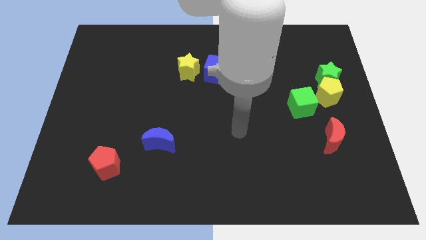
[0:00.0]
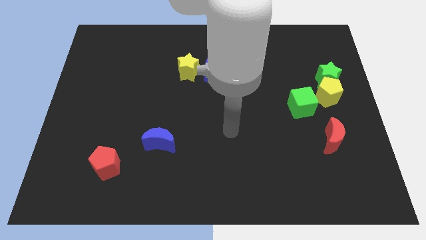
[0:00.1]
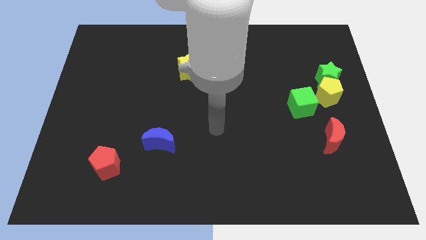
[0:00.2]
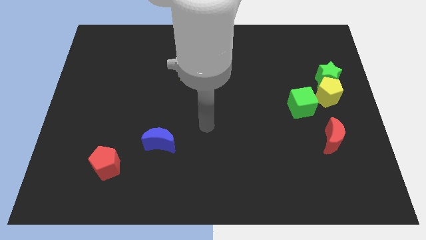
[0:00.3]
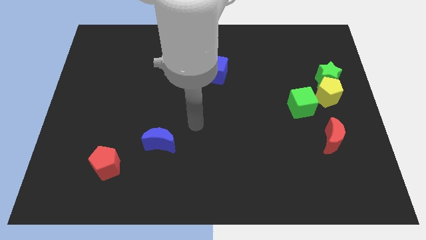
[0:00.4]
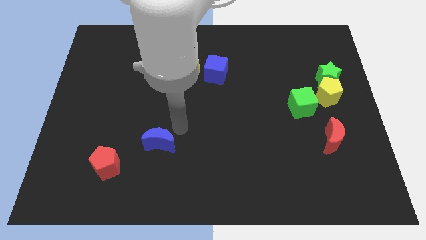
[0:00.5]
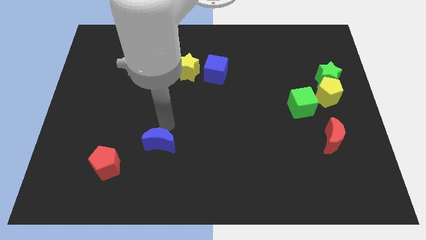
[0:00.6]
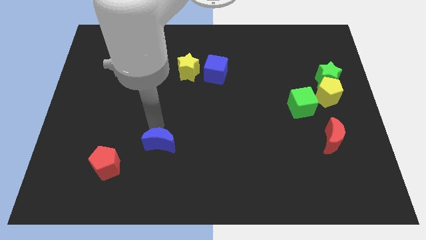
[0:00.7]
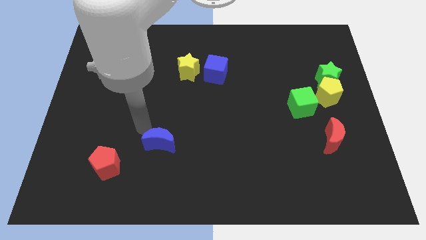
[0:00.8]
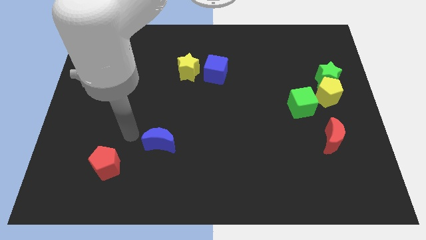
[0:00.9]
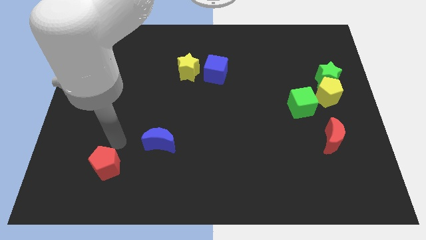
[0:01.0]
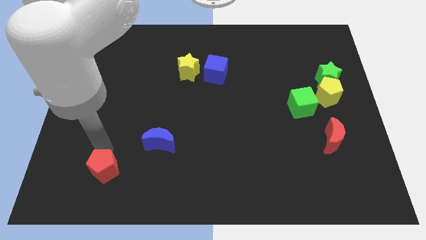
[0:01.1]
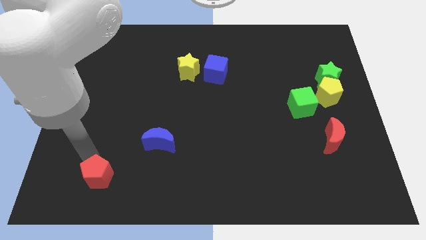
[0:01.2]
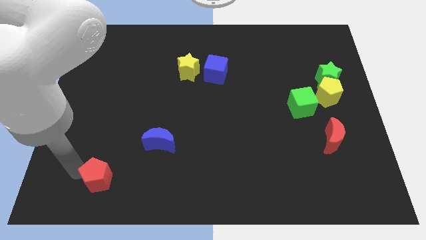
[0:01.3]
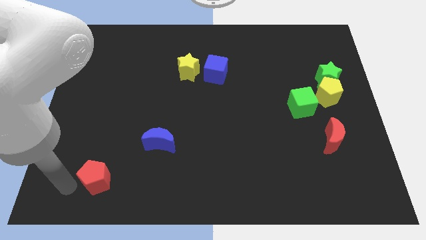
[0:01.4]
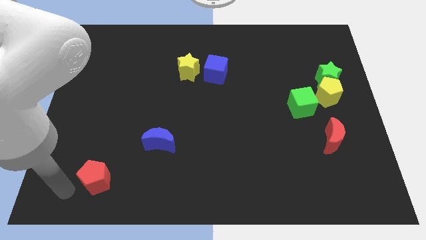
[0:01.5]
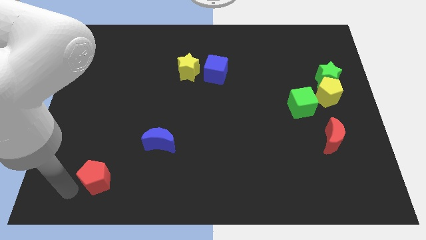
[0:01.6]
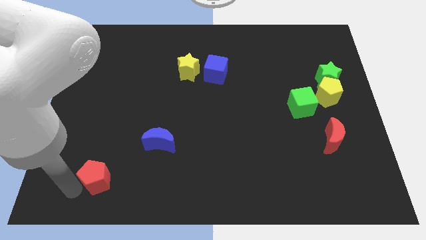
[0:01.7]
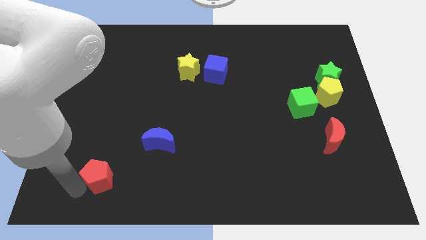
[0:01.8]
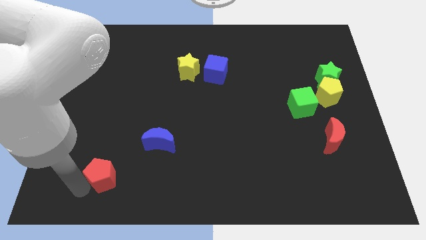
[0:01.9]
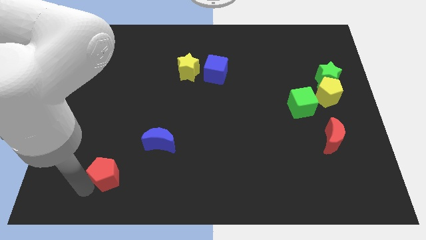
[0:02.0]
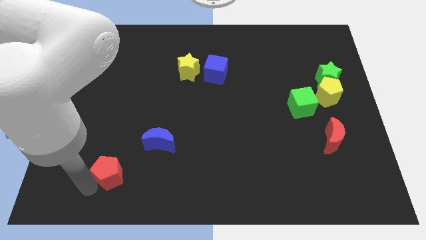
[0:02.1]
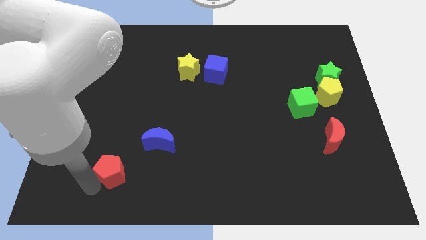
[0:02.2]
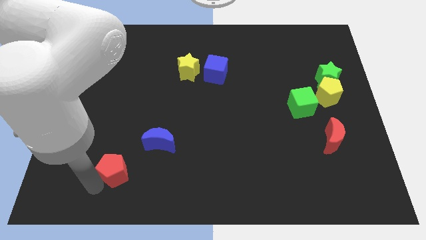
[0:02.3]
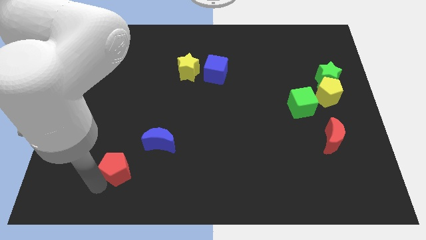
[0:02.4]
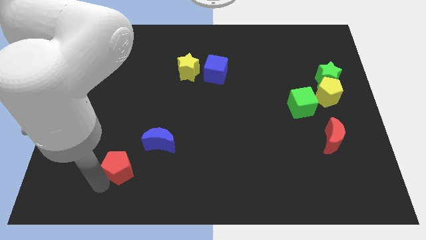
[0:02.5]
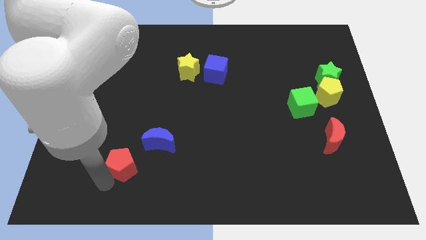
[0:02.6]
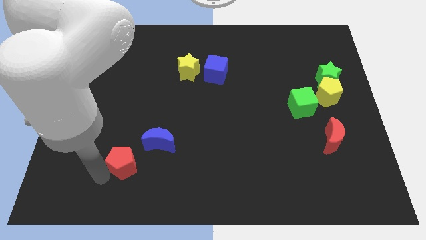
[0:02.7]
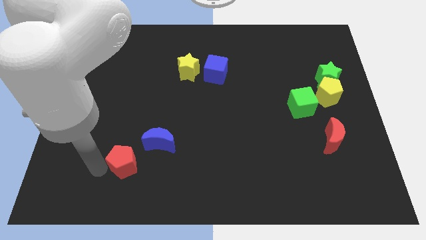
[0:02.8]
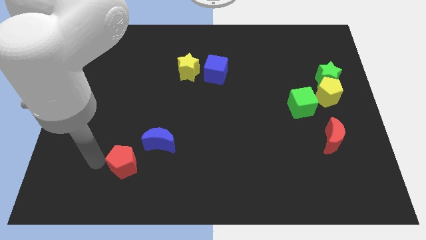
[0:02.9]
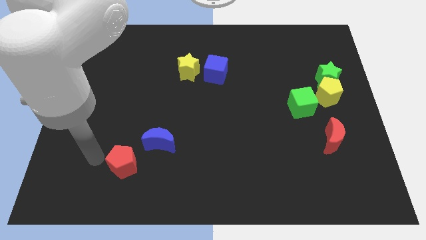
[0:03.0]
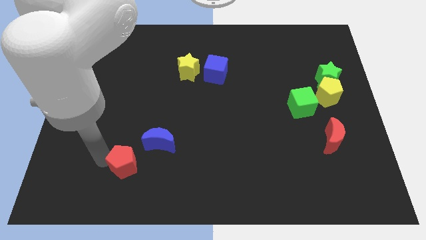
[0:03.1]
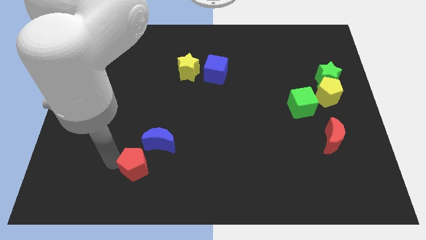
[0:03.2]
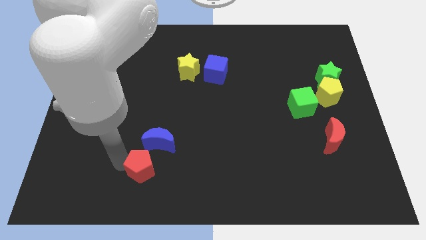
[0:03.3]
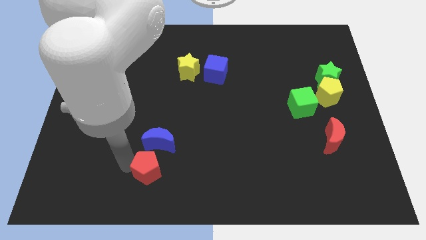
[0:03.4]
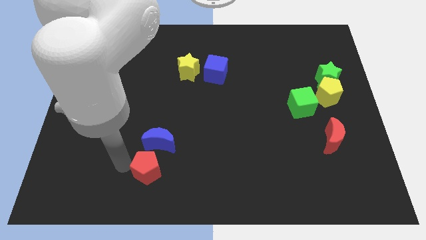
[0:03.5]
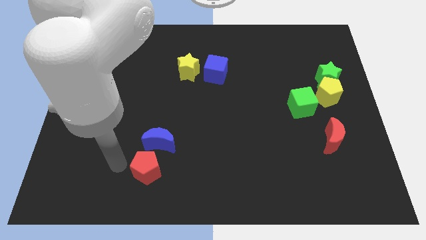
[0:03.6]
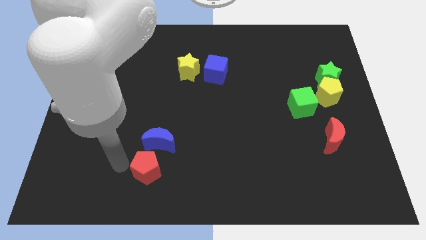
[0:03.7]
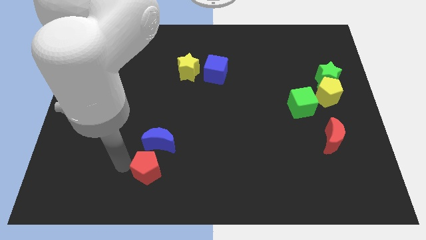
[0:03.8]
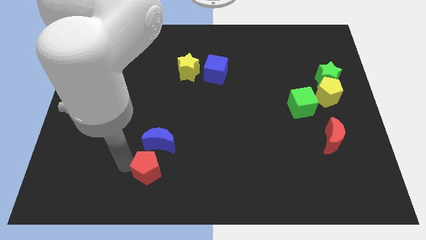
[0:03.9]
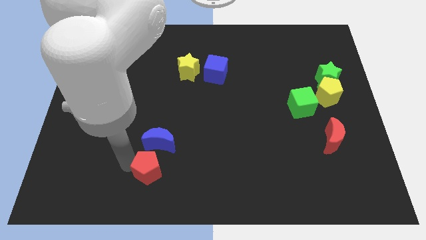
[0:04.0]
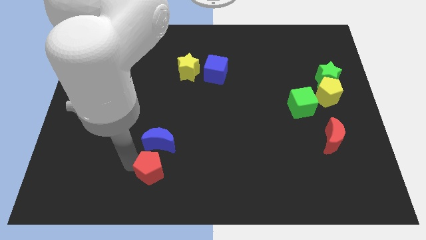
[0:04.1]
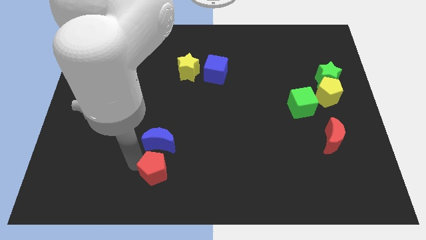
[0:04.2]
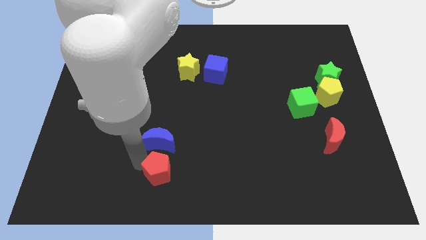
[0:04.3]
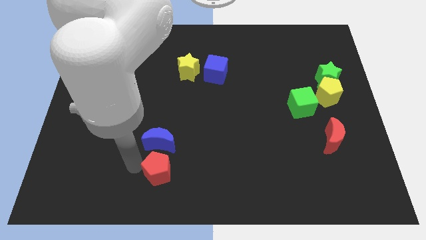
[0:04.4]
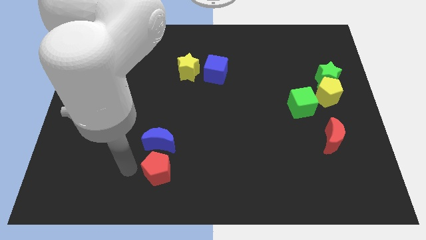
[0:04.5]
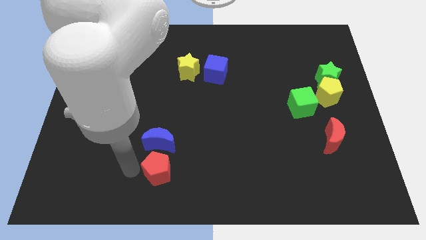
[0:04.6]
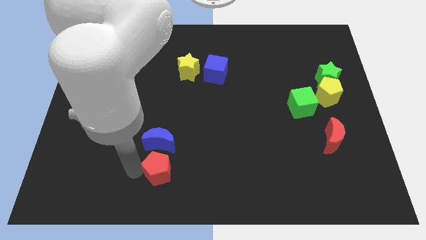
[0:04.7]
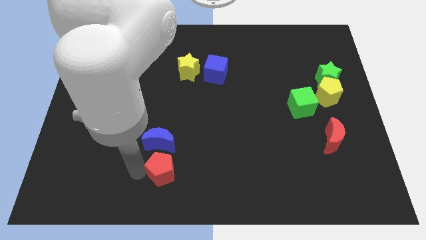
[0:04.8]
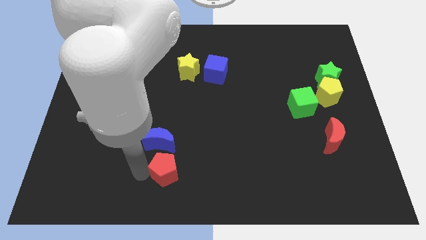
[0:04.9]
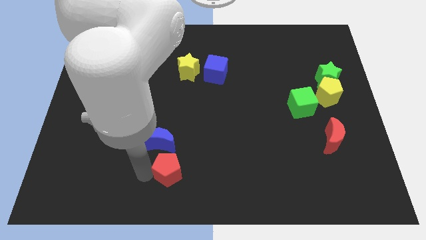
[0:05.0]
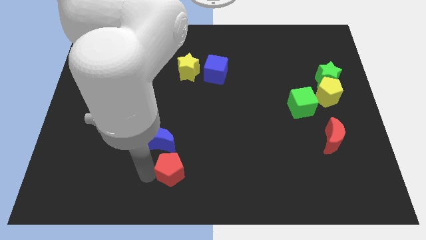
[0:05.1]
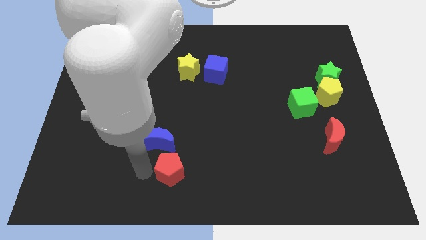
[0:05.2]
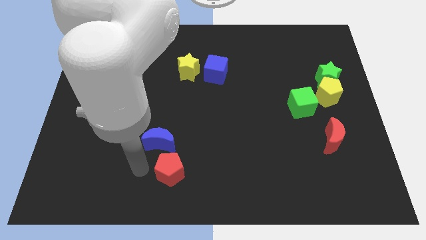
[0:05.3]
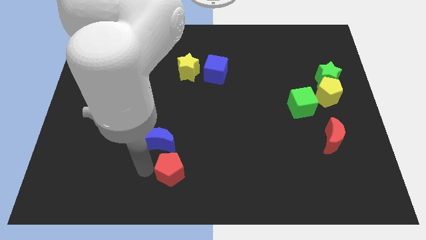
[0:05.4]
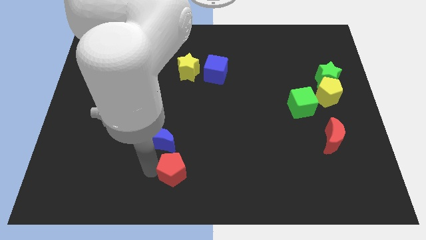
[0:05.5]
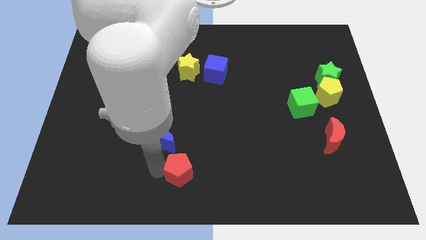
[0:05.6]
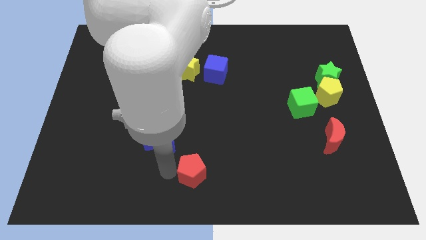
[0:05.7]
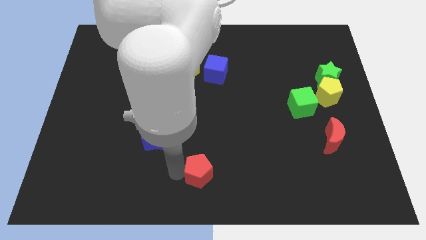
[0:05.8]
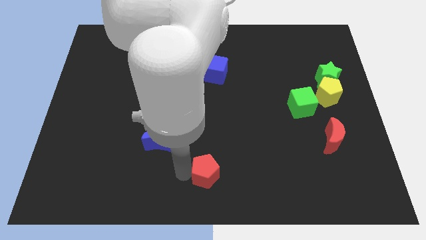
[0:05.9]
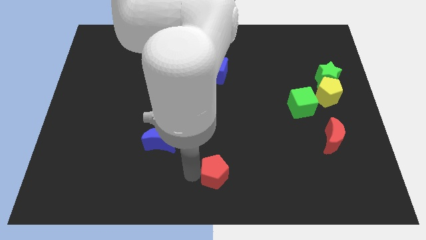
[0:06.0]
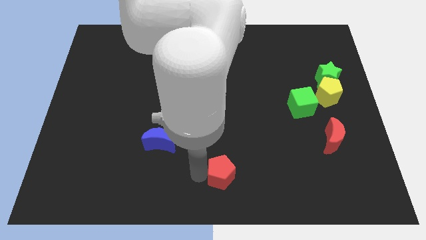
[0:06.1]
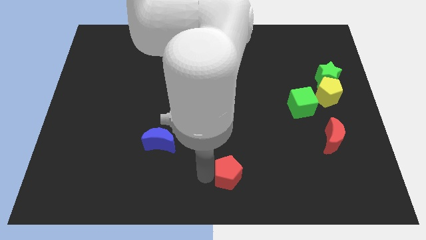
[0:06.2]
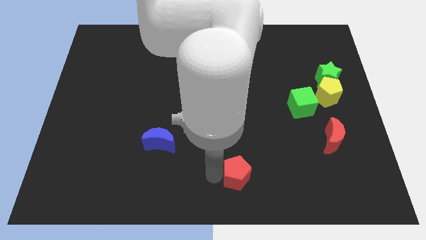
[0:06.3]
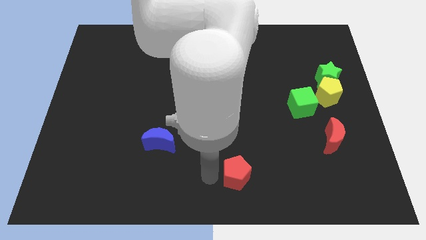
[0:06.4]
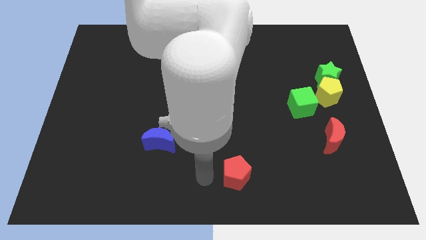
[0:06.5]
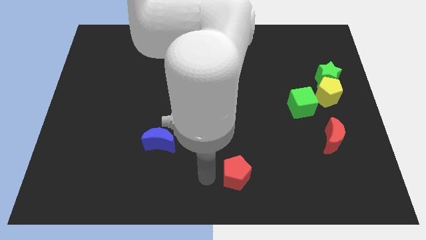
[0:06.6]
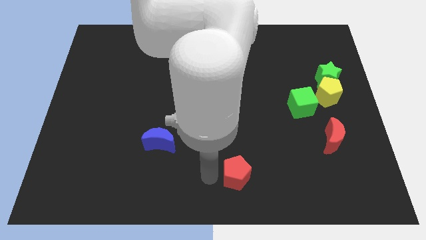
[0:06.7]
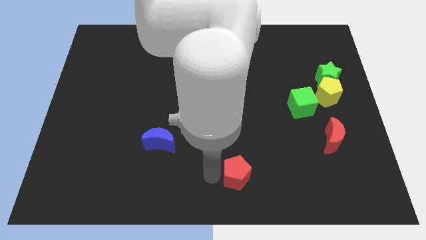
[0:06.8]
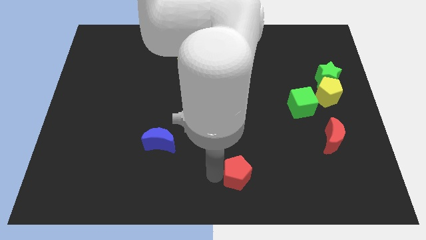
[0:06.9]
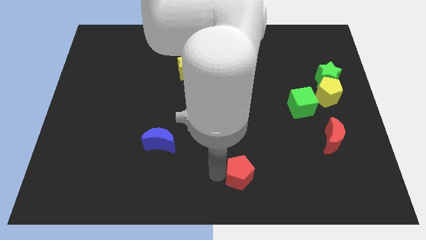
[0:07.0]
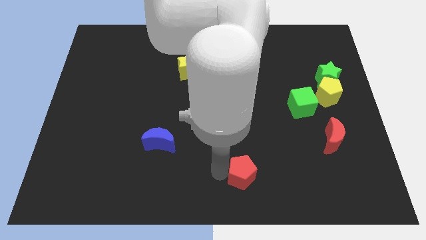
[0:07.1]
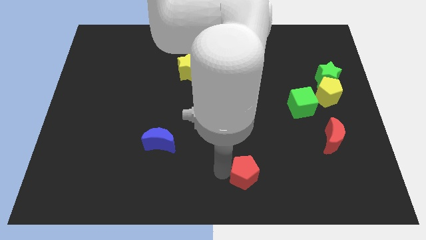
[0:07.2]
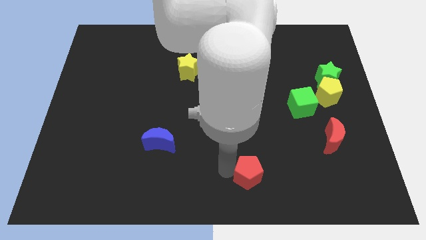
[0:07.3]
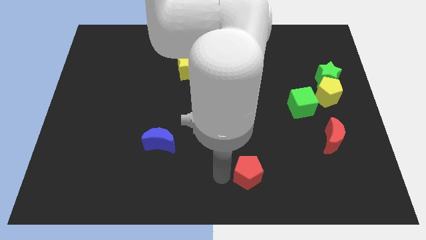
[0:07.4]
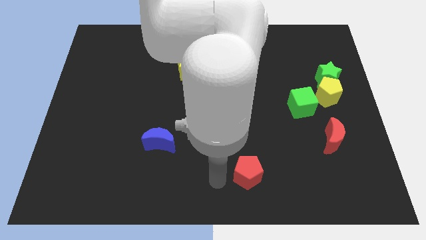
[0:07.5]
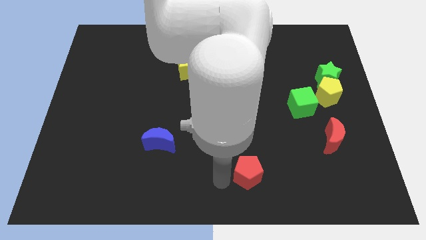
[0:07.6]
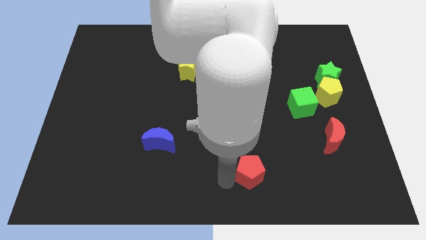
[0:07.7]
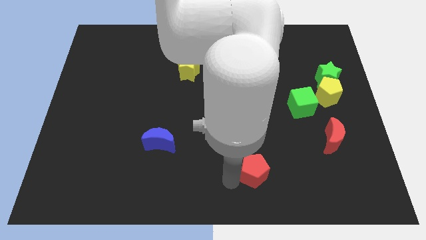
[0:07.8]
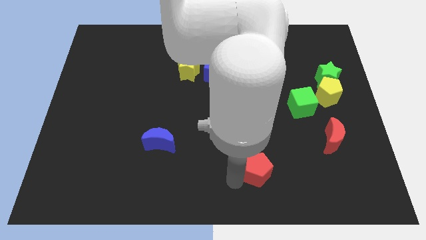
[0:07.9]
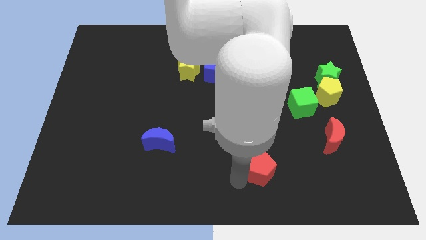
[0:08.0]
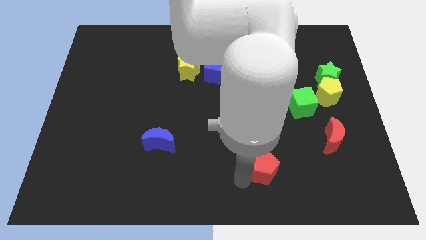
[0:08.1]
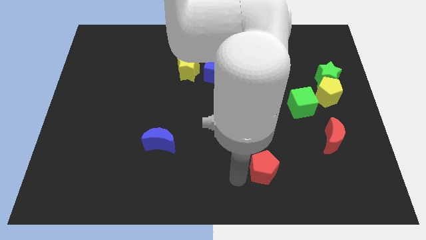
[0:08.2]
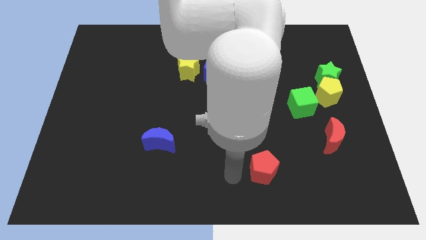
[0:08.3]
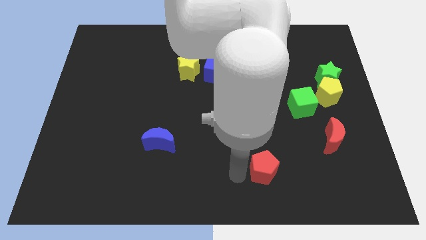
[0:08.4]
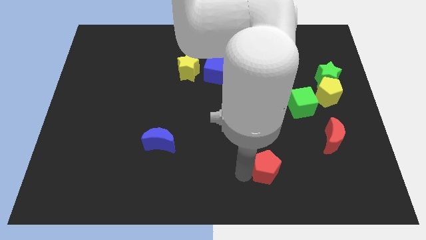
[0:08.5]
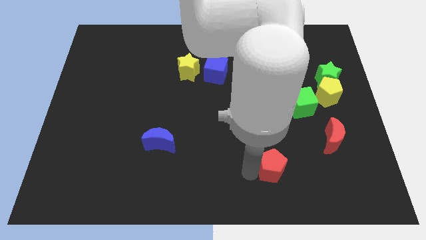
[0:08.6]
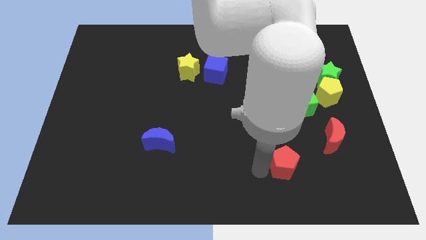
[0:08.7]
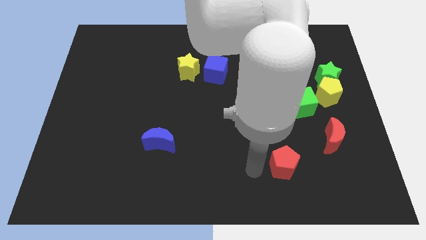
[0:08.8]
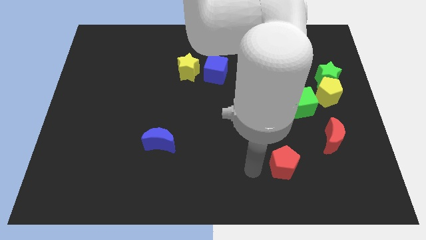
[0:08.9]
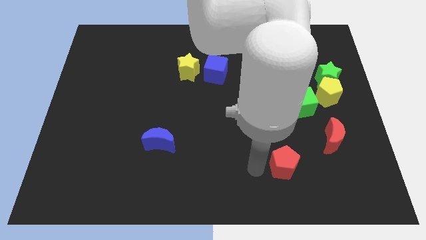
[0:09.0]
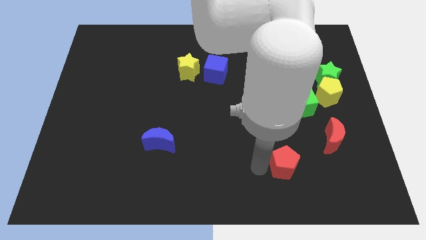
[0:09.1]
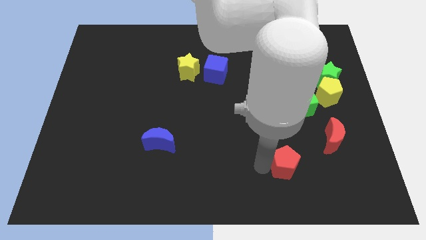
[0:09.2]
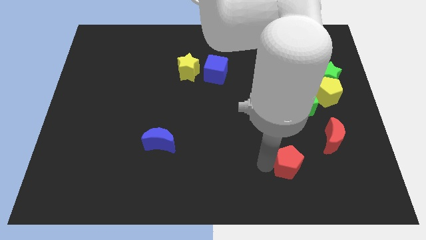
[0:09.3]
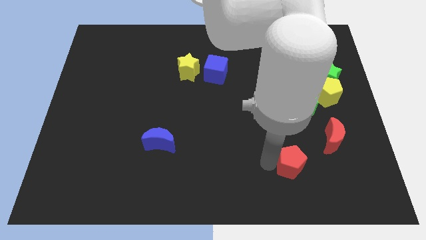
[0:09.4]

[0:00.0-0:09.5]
move the red pentagon diagonally down and to the left of the red moon
